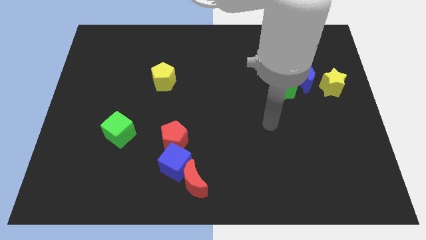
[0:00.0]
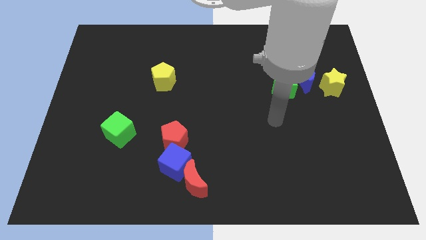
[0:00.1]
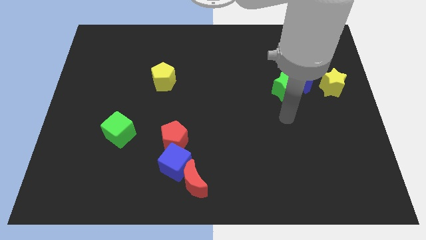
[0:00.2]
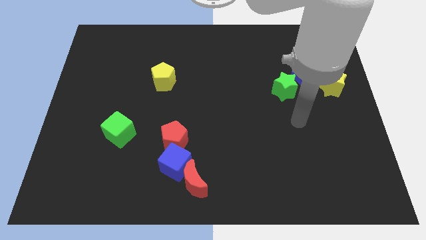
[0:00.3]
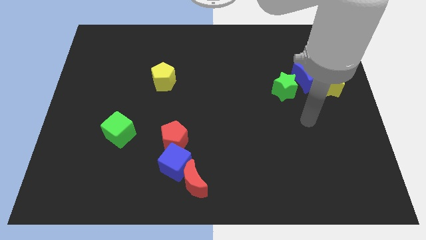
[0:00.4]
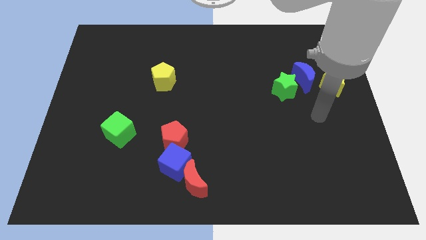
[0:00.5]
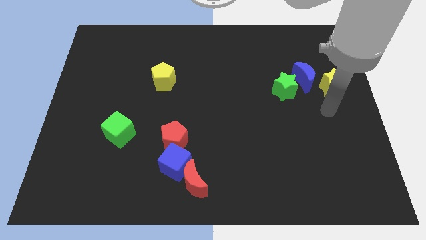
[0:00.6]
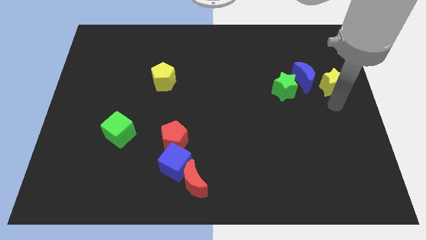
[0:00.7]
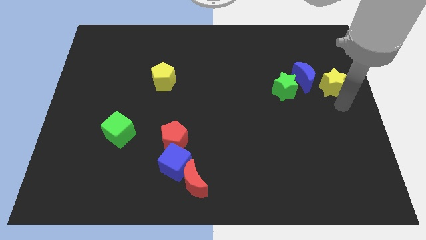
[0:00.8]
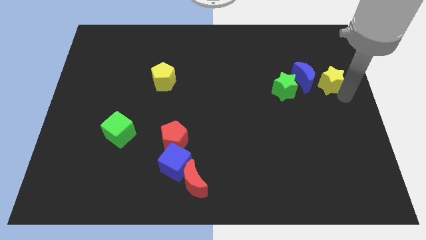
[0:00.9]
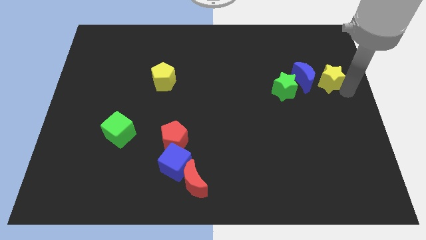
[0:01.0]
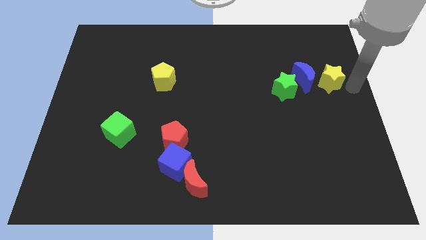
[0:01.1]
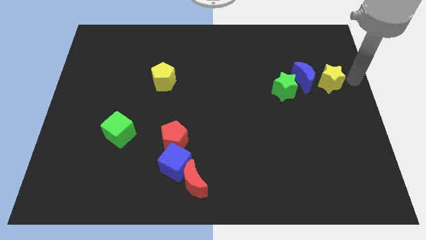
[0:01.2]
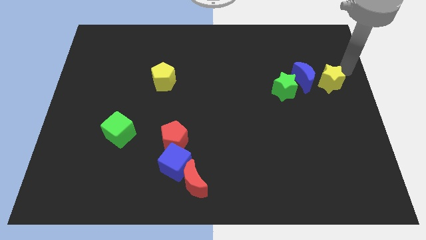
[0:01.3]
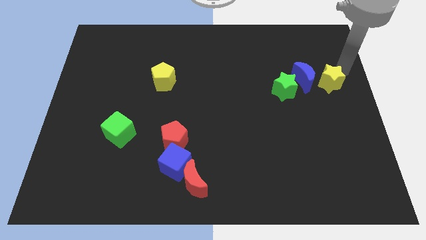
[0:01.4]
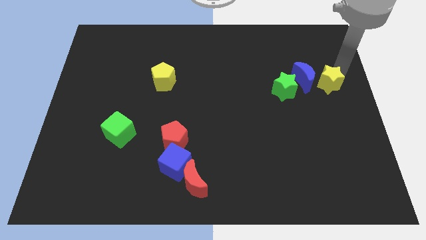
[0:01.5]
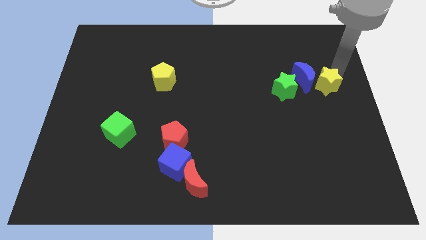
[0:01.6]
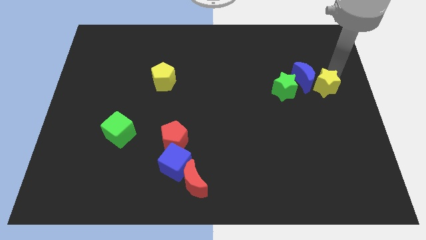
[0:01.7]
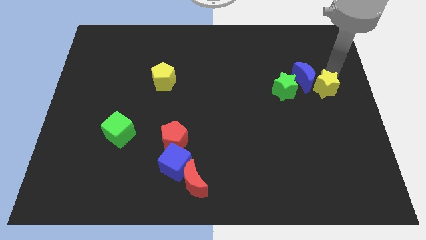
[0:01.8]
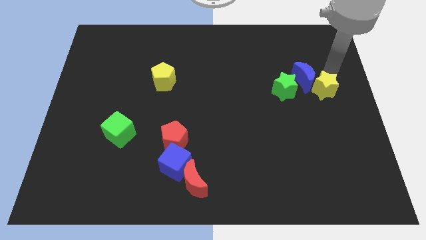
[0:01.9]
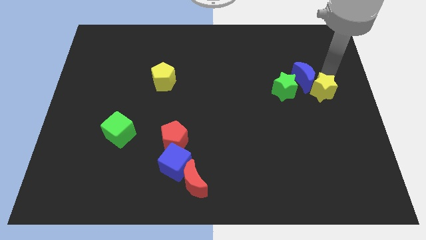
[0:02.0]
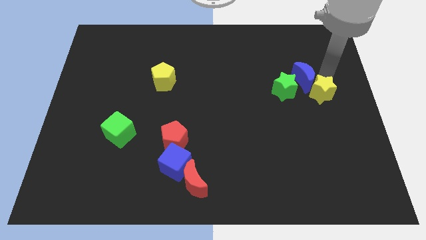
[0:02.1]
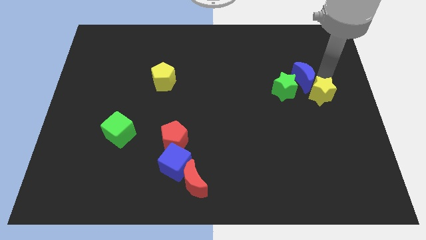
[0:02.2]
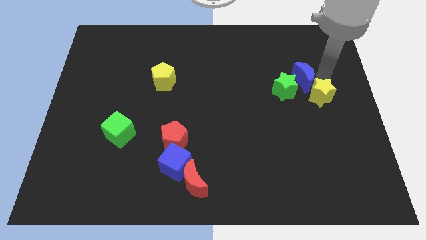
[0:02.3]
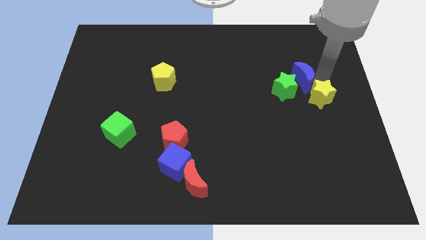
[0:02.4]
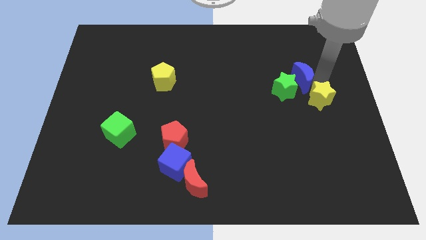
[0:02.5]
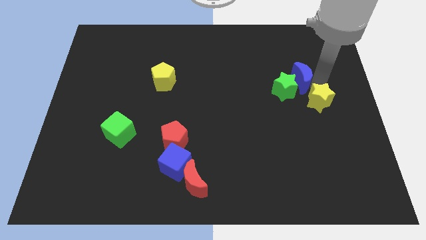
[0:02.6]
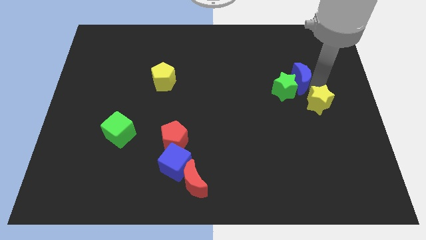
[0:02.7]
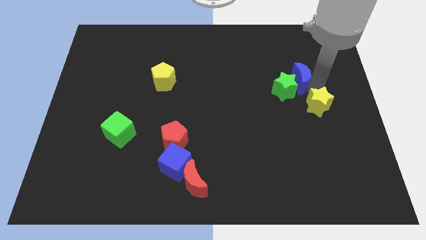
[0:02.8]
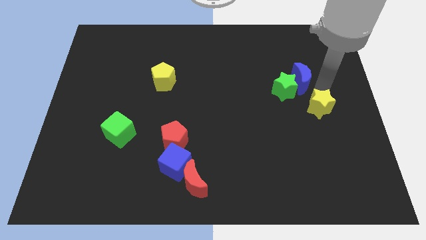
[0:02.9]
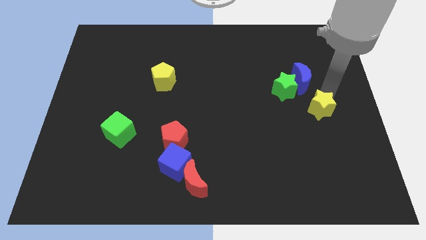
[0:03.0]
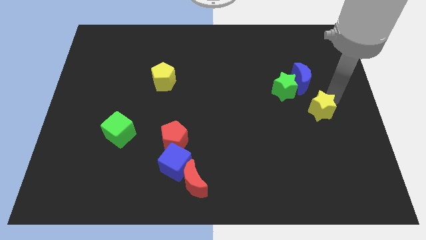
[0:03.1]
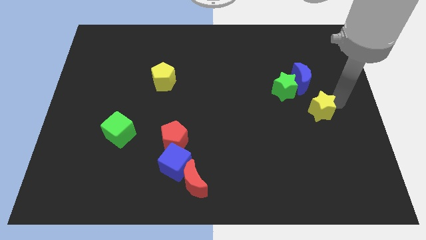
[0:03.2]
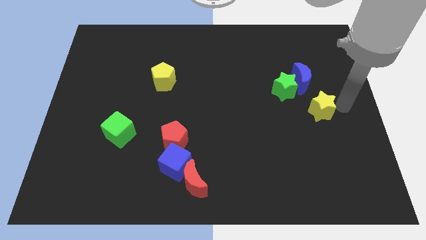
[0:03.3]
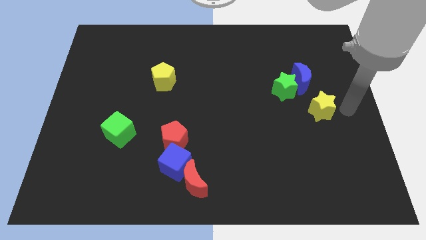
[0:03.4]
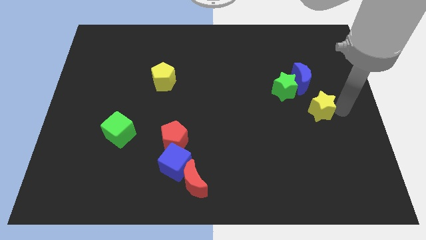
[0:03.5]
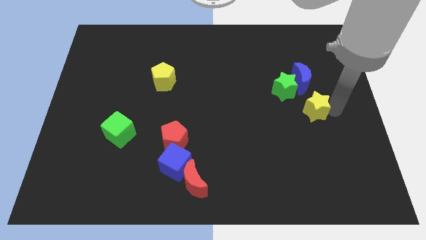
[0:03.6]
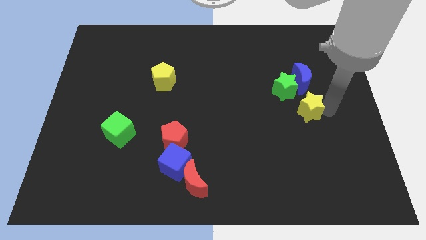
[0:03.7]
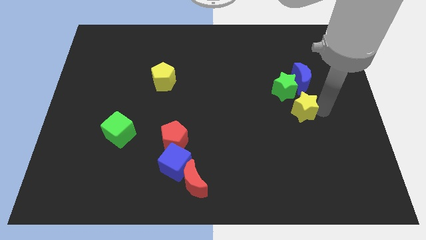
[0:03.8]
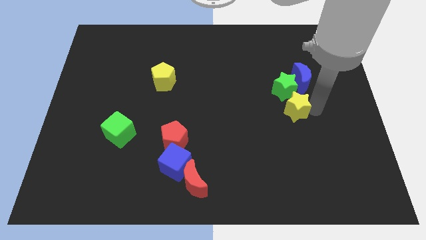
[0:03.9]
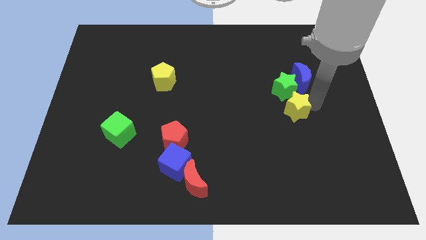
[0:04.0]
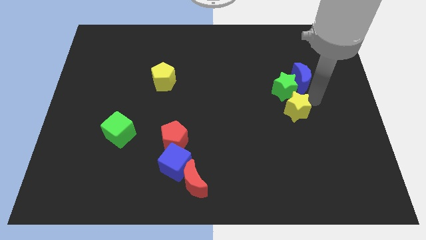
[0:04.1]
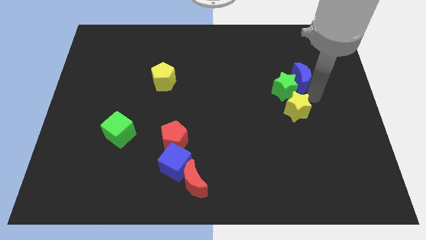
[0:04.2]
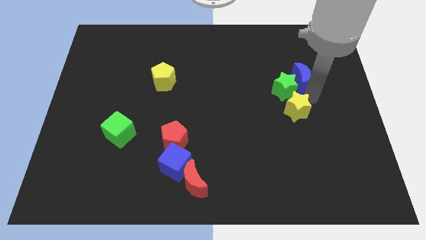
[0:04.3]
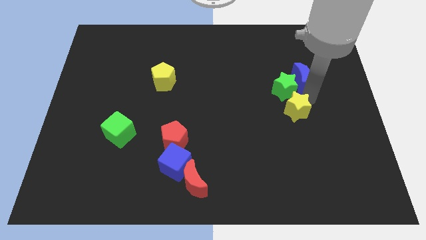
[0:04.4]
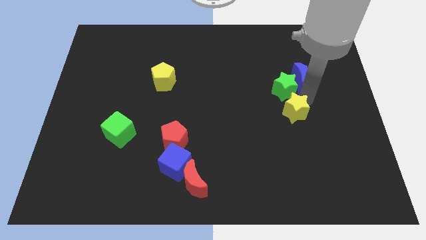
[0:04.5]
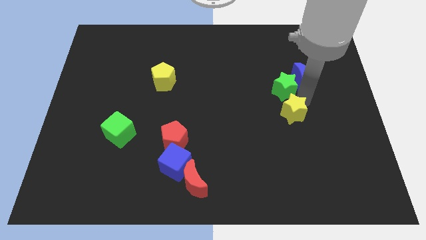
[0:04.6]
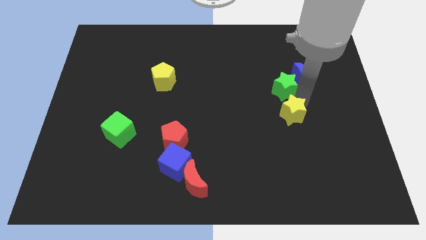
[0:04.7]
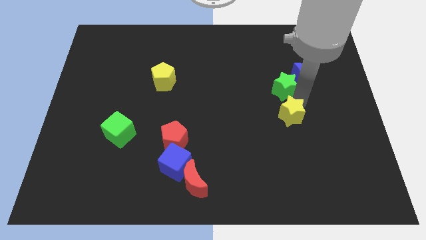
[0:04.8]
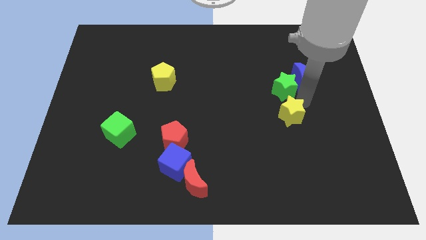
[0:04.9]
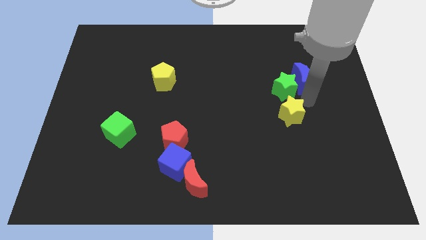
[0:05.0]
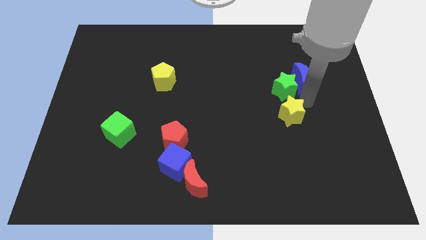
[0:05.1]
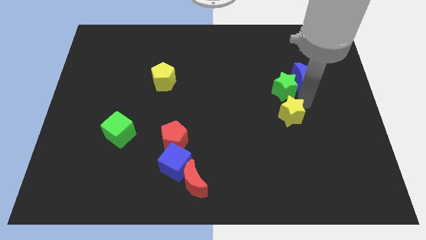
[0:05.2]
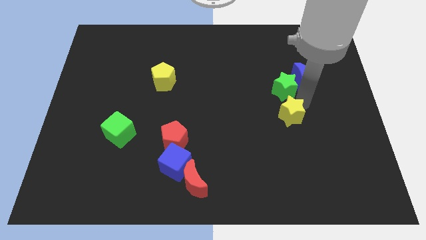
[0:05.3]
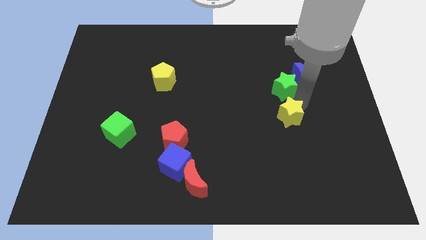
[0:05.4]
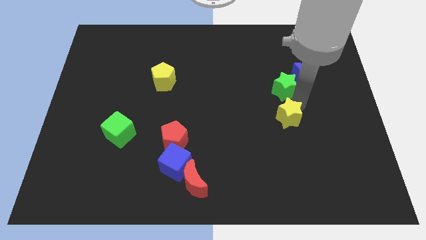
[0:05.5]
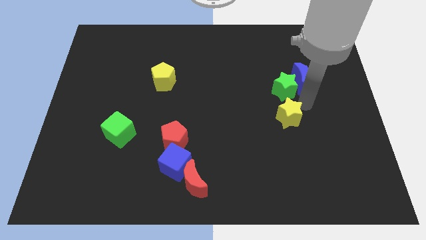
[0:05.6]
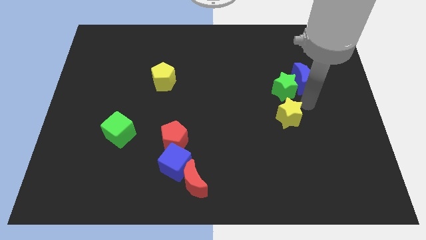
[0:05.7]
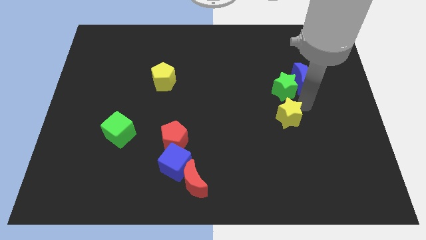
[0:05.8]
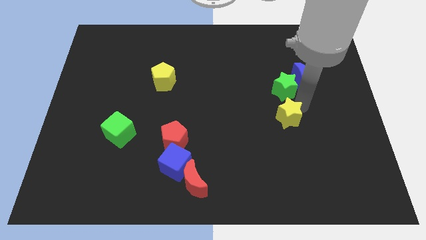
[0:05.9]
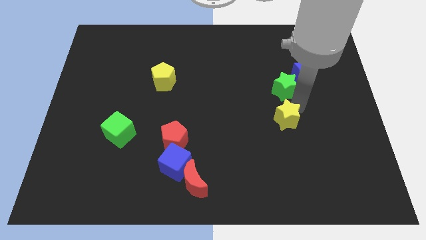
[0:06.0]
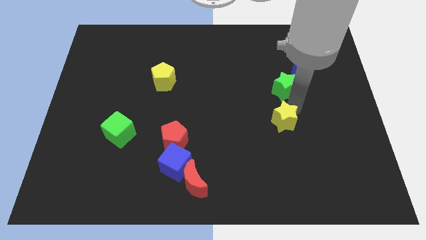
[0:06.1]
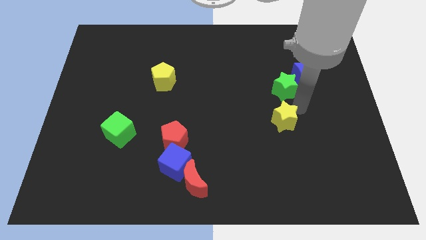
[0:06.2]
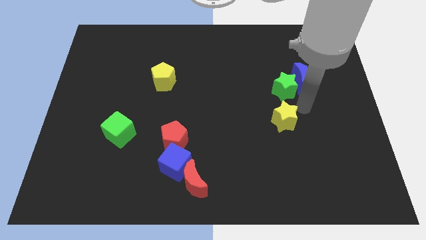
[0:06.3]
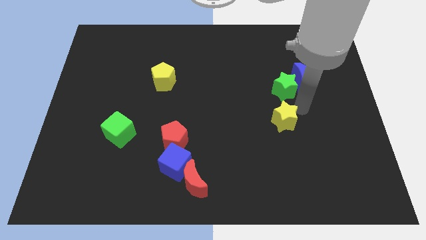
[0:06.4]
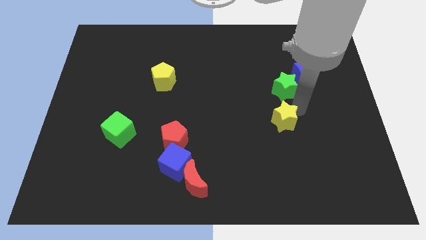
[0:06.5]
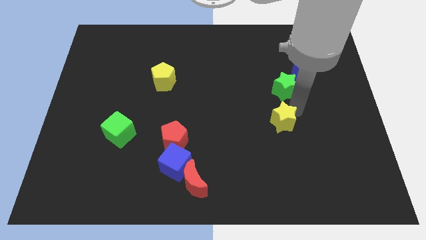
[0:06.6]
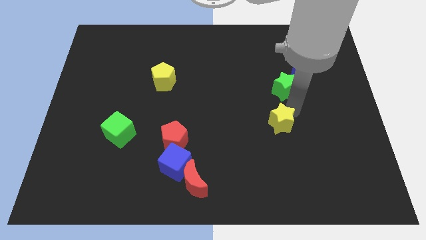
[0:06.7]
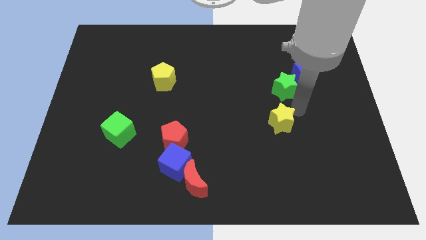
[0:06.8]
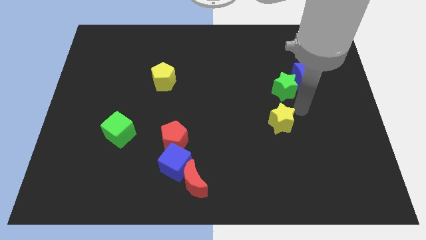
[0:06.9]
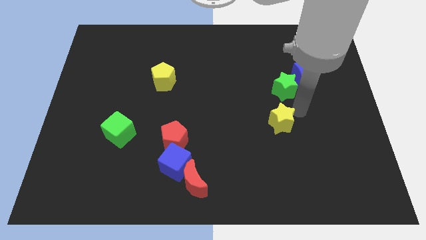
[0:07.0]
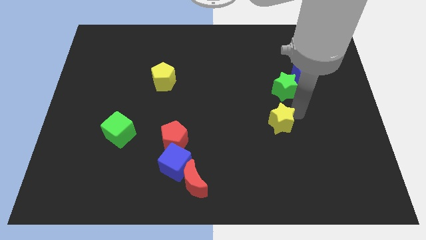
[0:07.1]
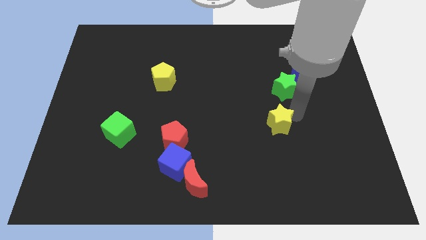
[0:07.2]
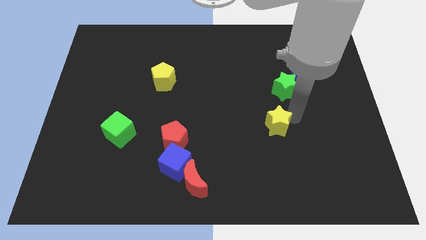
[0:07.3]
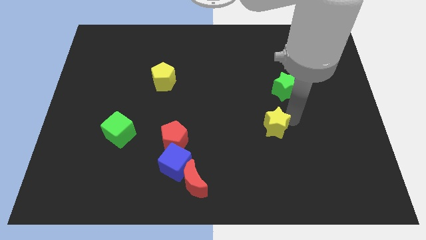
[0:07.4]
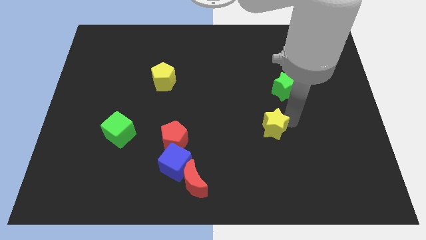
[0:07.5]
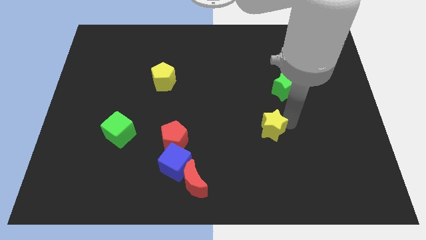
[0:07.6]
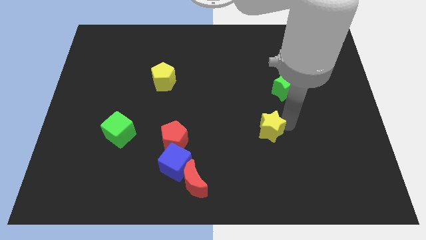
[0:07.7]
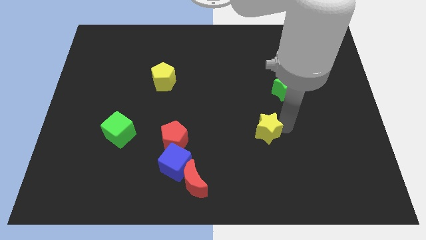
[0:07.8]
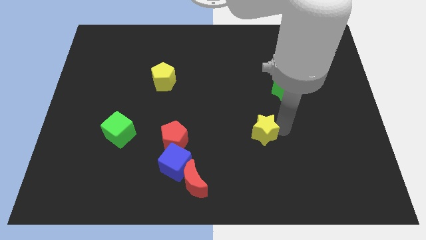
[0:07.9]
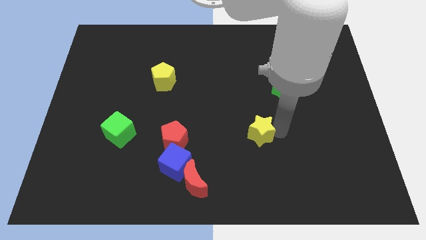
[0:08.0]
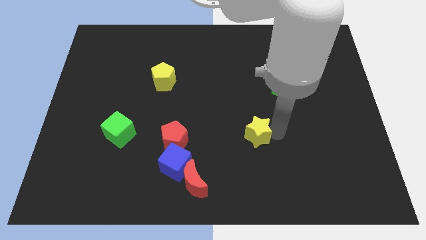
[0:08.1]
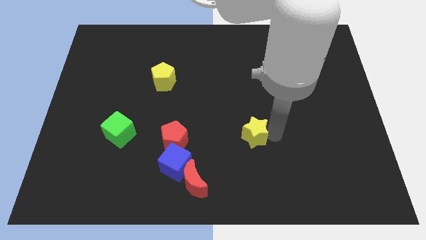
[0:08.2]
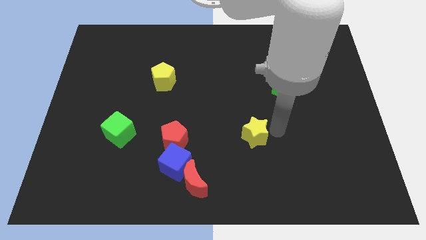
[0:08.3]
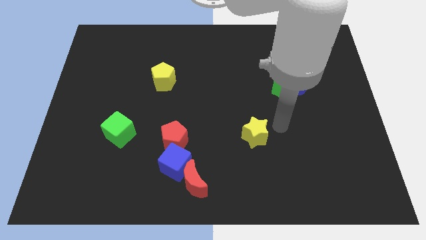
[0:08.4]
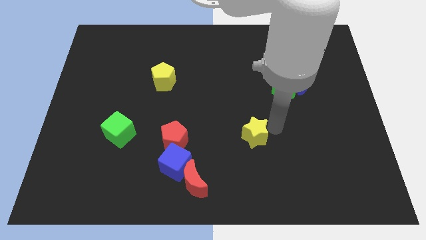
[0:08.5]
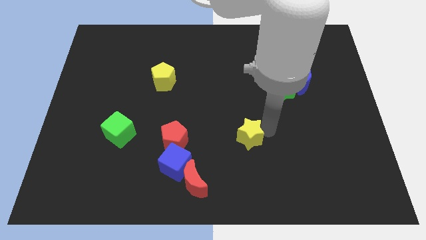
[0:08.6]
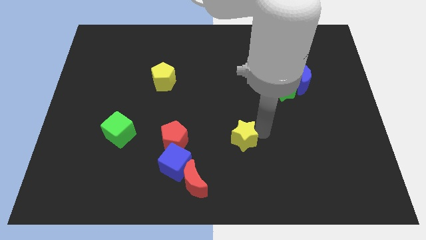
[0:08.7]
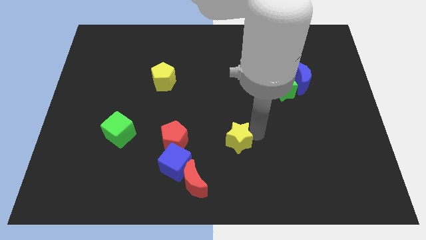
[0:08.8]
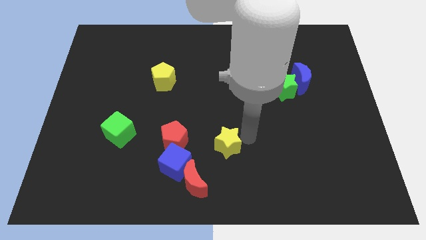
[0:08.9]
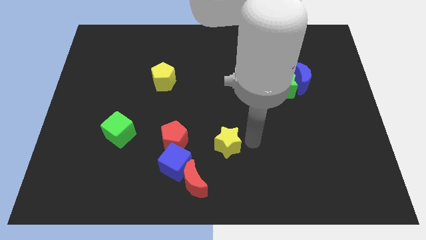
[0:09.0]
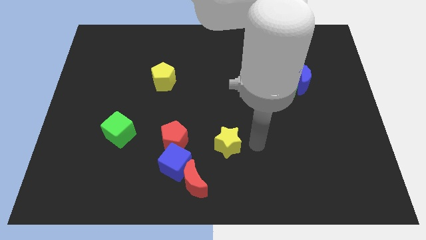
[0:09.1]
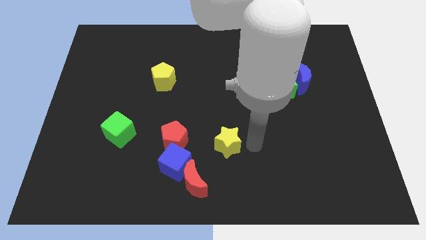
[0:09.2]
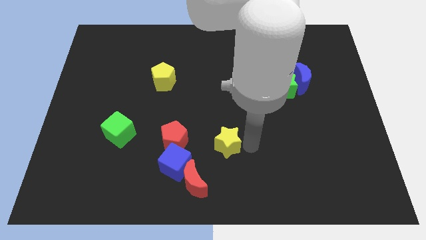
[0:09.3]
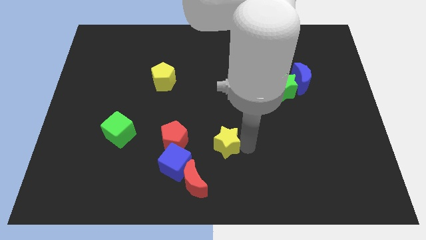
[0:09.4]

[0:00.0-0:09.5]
push the yellow star to the top right side of the blue cube
